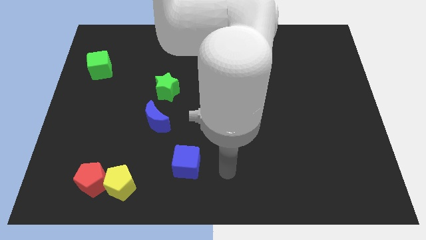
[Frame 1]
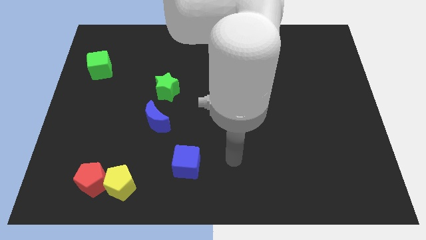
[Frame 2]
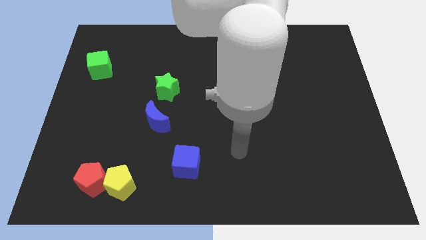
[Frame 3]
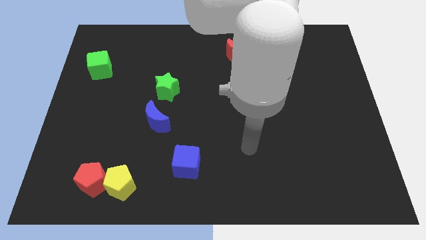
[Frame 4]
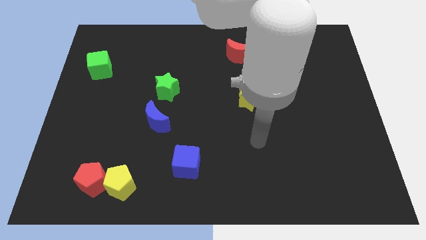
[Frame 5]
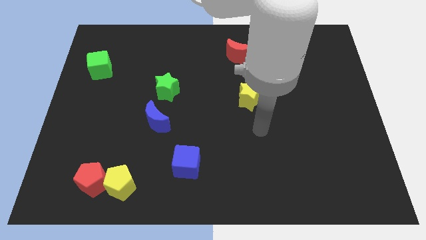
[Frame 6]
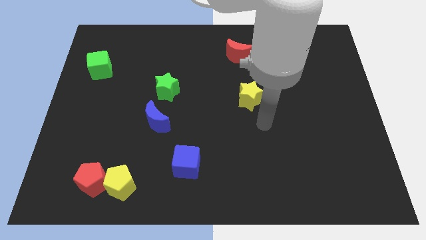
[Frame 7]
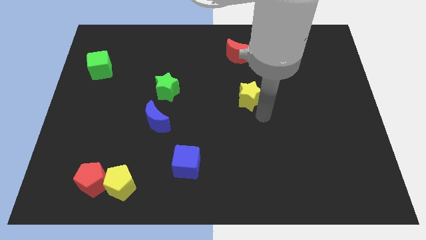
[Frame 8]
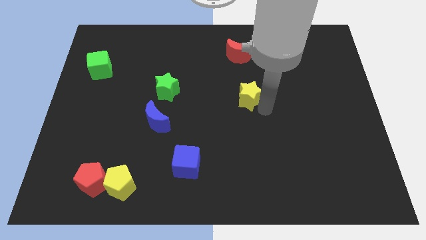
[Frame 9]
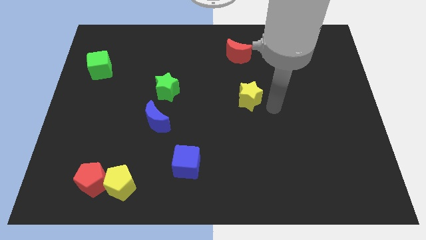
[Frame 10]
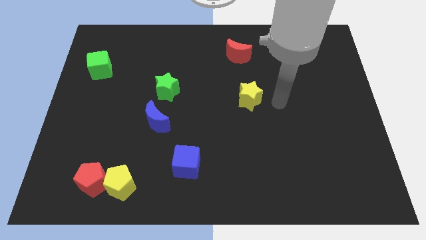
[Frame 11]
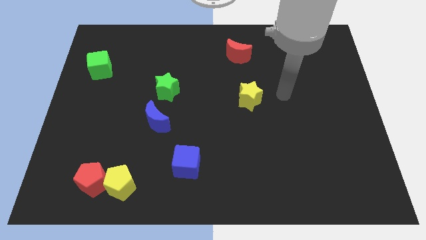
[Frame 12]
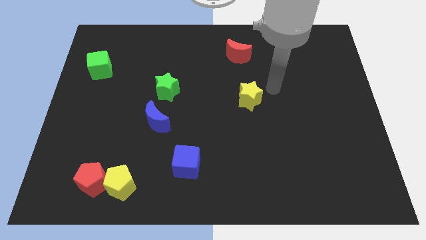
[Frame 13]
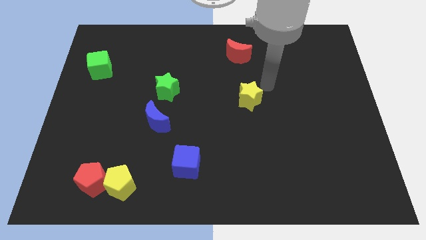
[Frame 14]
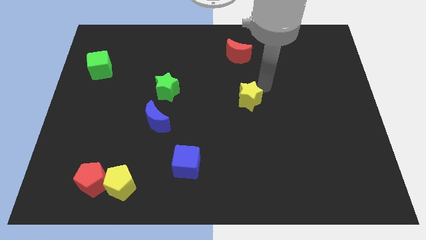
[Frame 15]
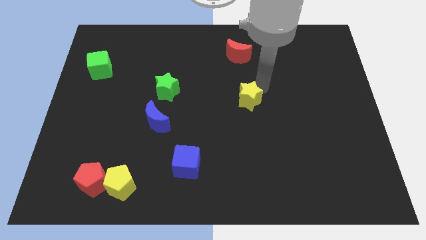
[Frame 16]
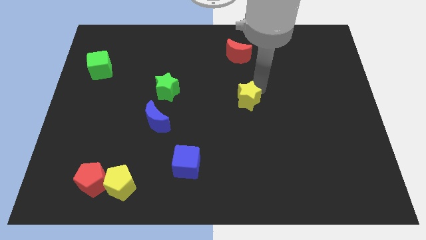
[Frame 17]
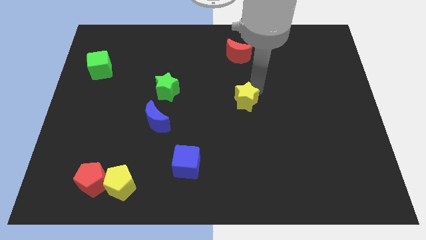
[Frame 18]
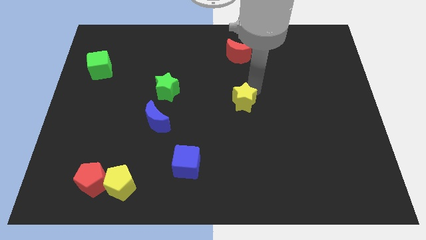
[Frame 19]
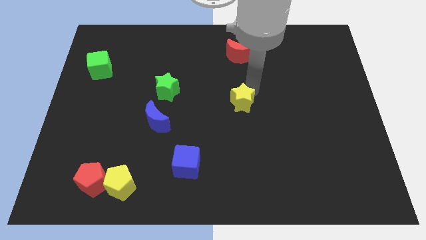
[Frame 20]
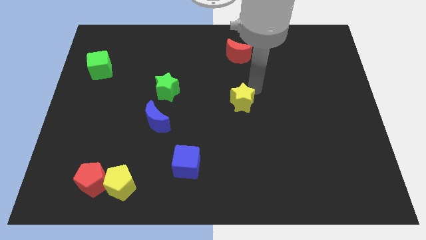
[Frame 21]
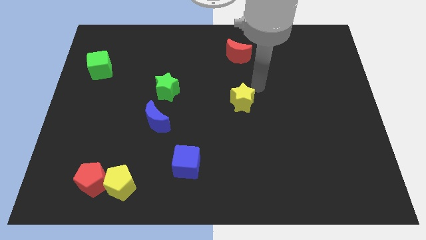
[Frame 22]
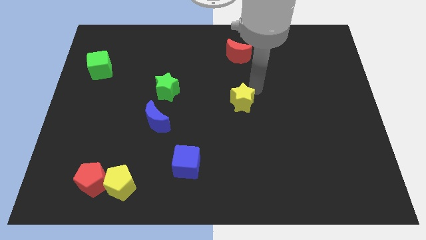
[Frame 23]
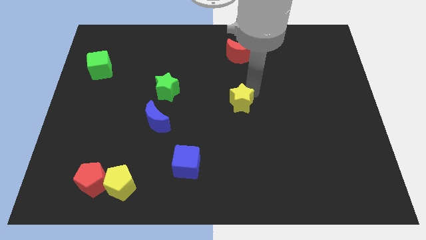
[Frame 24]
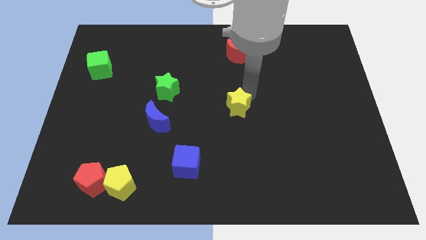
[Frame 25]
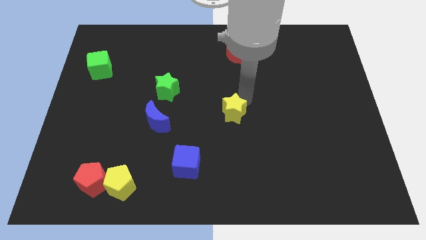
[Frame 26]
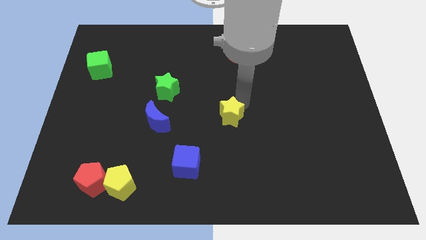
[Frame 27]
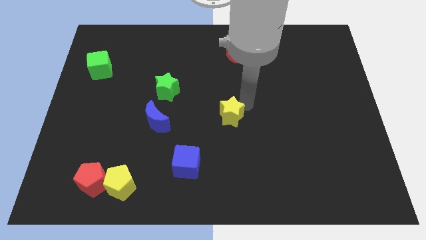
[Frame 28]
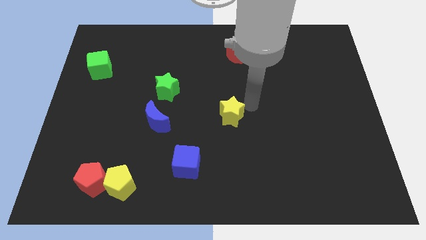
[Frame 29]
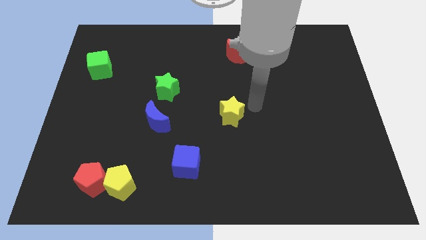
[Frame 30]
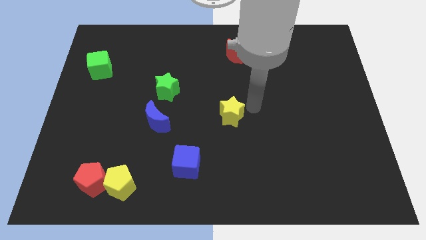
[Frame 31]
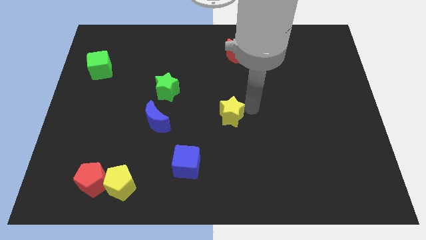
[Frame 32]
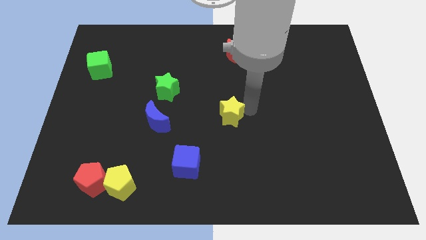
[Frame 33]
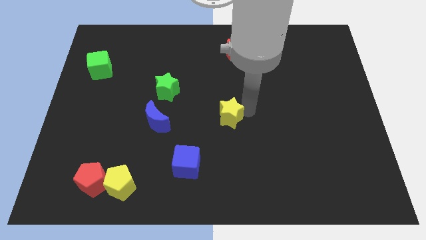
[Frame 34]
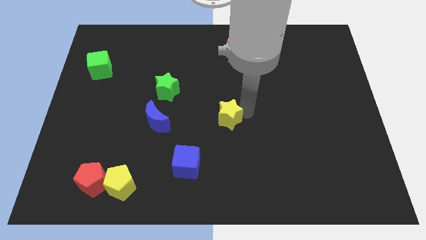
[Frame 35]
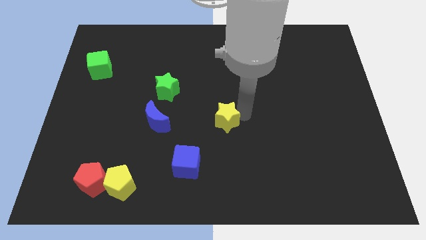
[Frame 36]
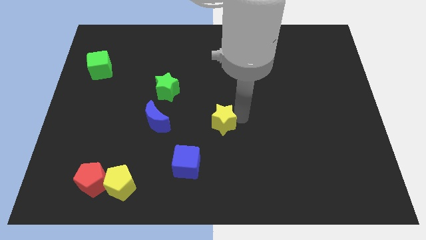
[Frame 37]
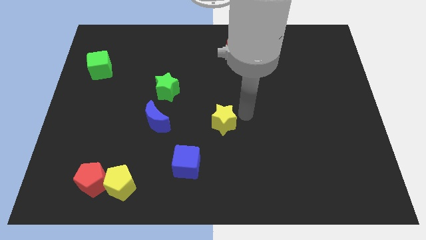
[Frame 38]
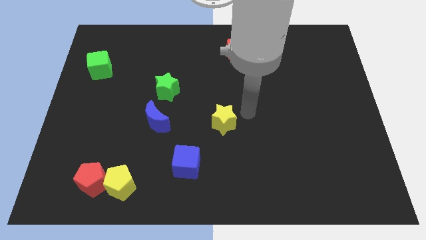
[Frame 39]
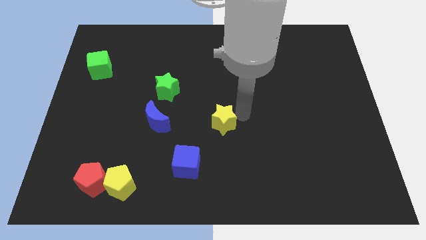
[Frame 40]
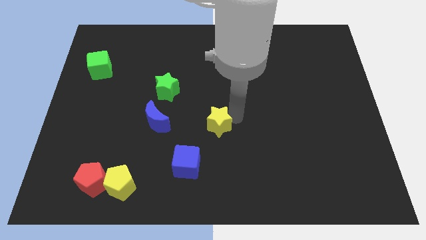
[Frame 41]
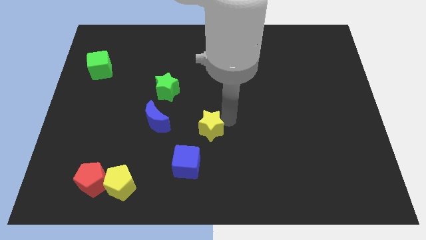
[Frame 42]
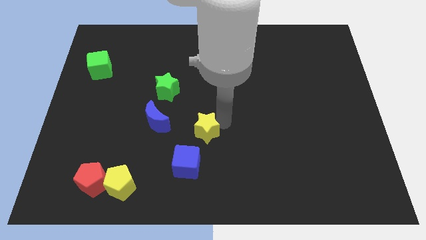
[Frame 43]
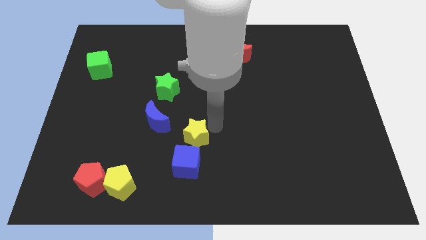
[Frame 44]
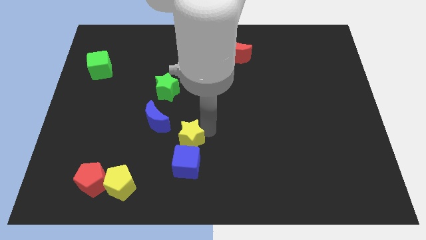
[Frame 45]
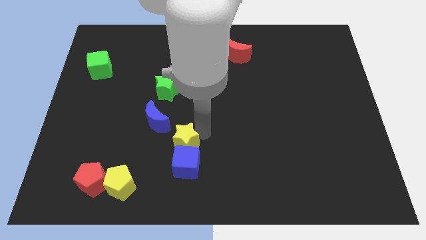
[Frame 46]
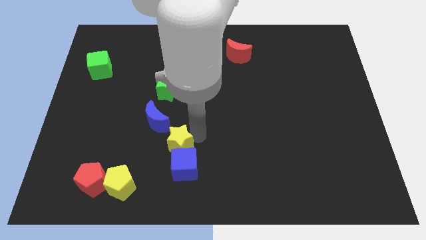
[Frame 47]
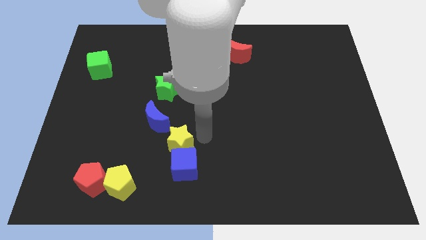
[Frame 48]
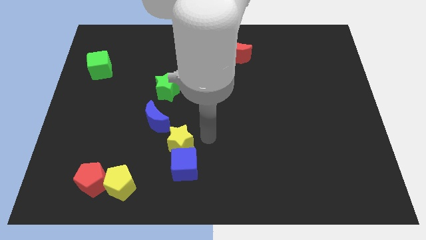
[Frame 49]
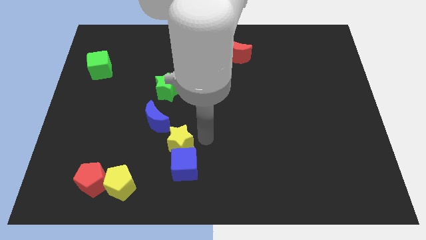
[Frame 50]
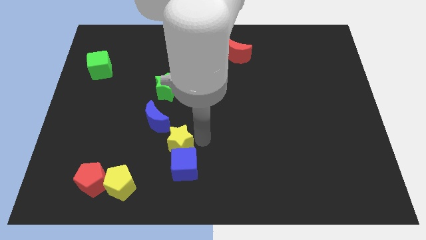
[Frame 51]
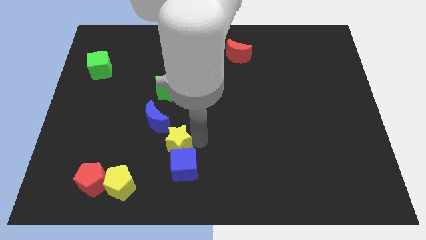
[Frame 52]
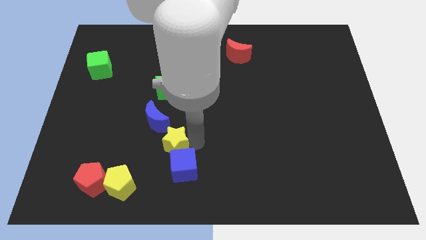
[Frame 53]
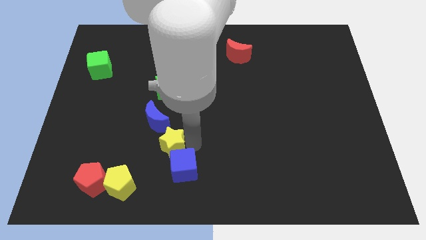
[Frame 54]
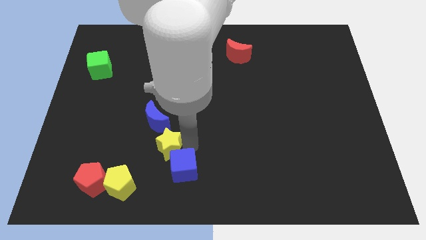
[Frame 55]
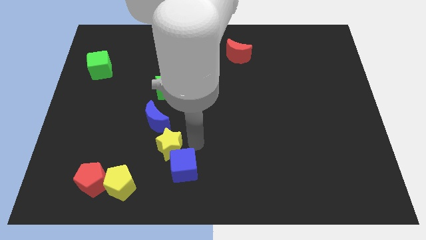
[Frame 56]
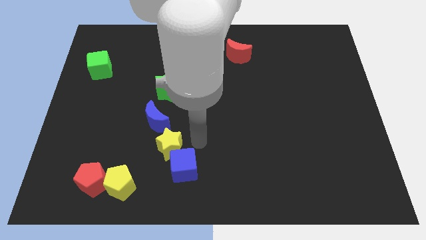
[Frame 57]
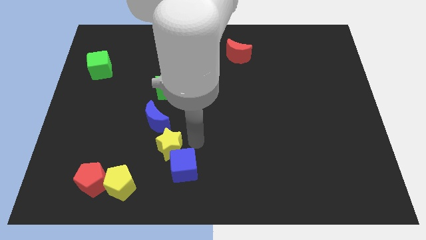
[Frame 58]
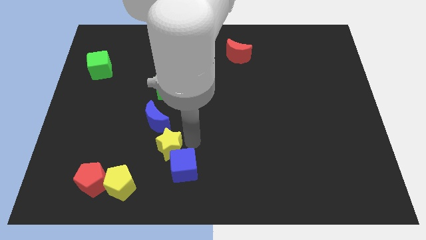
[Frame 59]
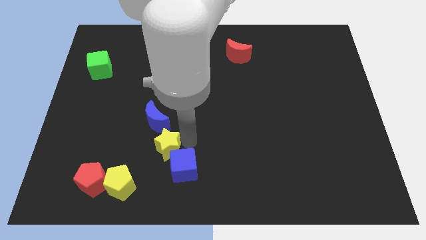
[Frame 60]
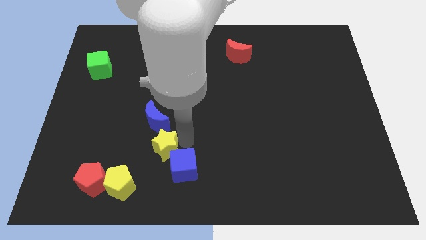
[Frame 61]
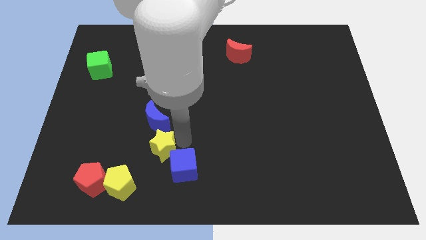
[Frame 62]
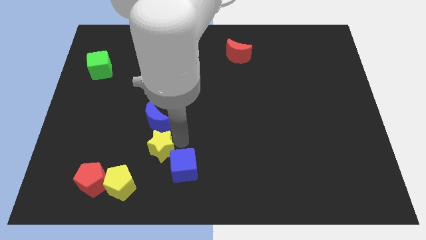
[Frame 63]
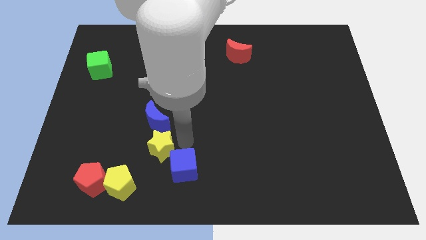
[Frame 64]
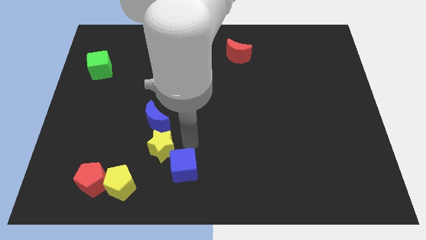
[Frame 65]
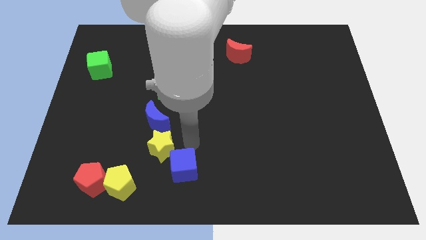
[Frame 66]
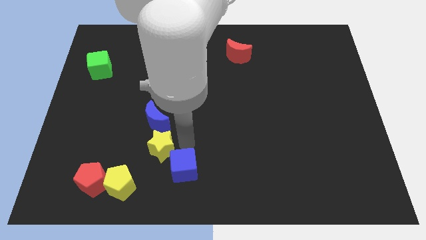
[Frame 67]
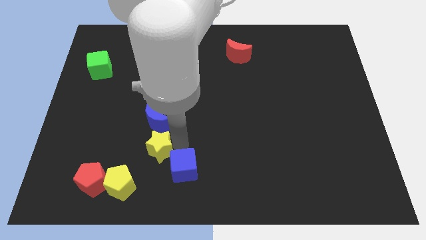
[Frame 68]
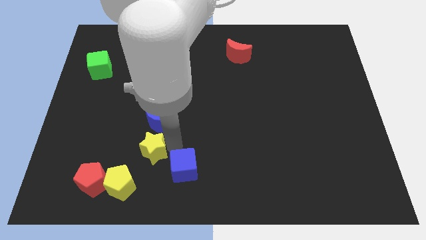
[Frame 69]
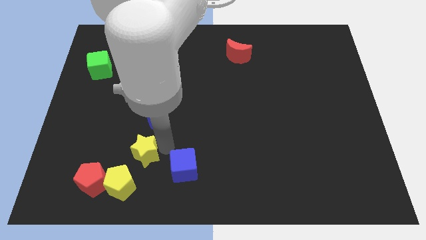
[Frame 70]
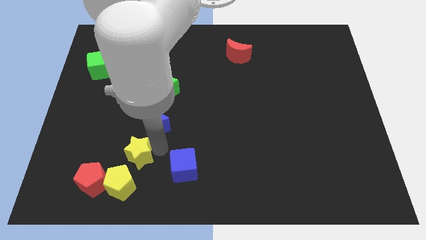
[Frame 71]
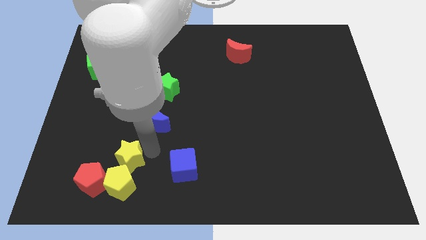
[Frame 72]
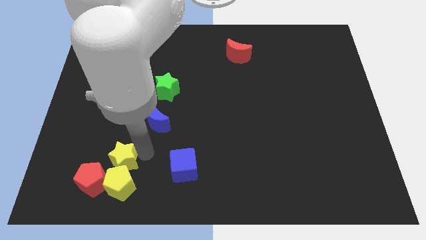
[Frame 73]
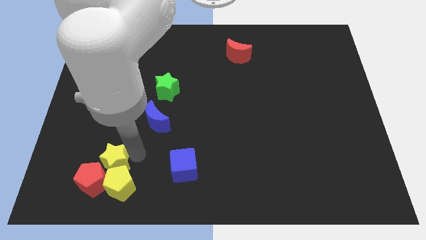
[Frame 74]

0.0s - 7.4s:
put the yellow star next to the red pentagon

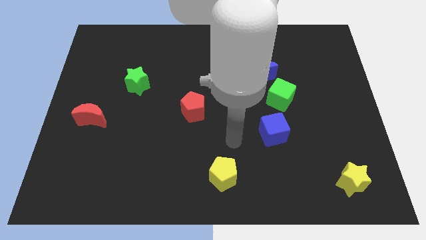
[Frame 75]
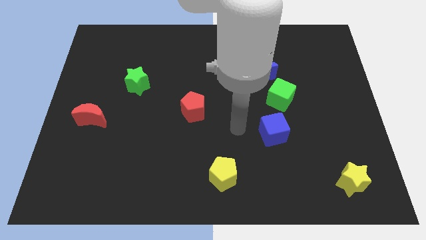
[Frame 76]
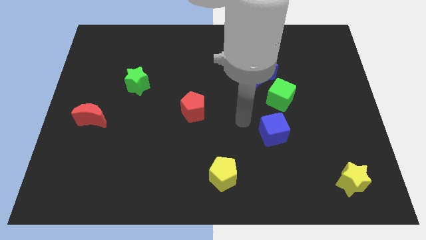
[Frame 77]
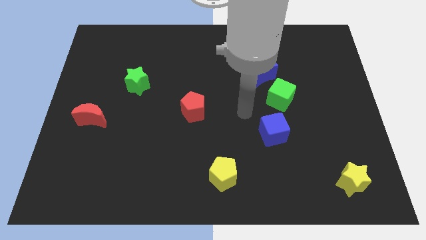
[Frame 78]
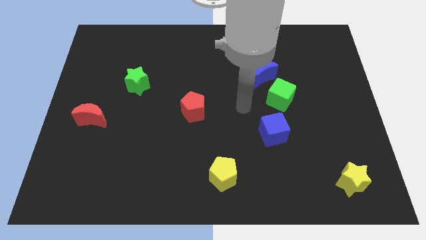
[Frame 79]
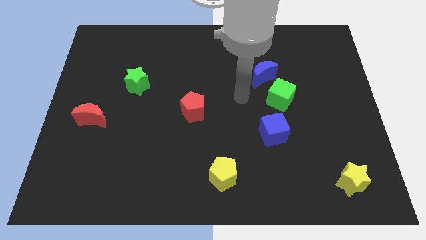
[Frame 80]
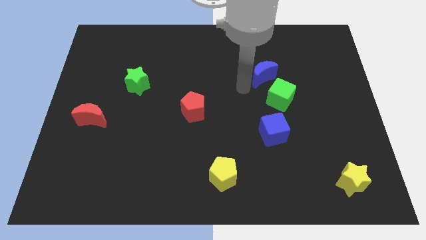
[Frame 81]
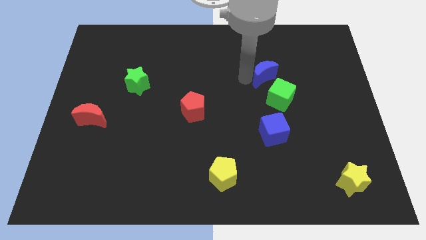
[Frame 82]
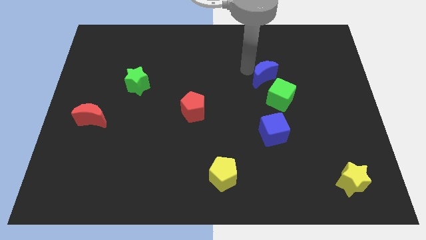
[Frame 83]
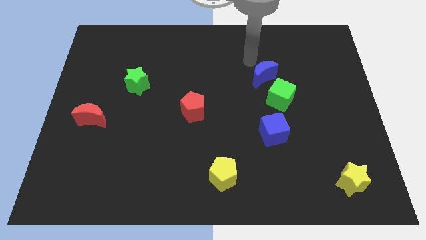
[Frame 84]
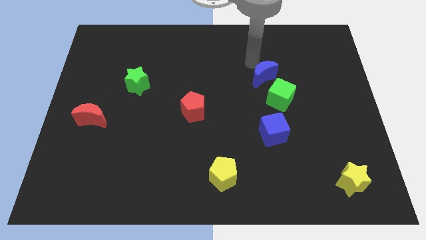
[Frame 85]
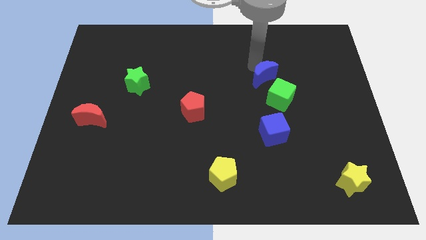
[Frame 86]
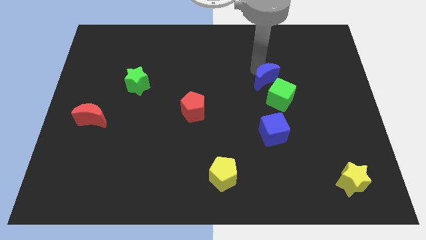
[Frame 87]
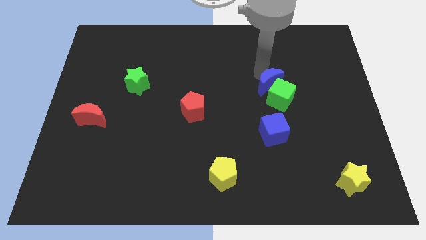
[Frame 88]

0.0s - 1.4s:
put the blue moon next to the green cube
